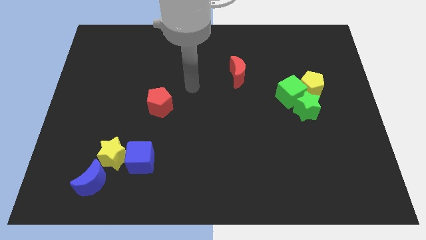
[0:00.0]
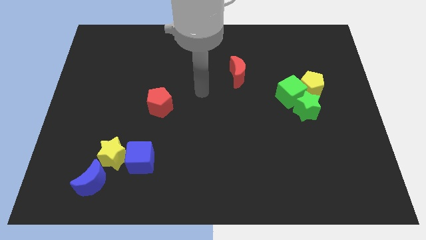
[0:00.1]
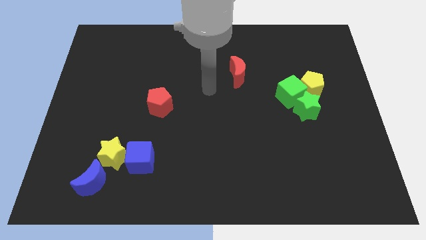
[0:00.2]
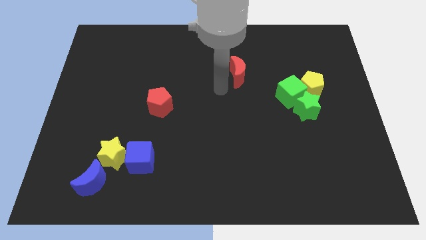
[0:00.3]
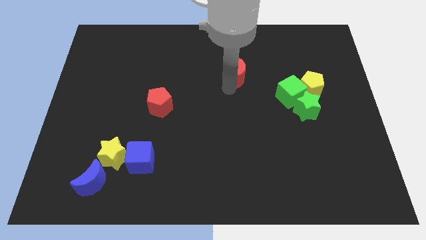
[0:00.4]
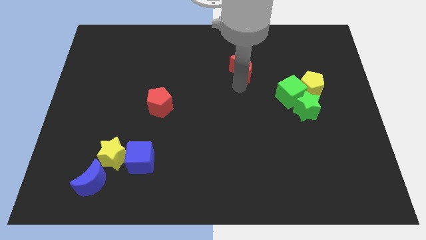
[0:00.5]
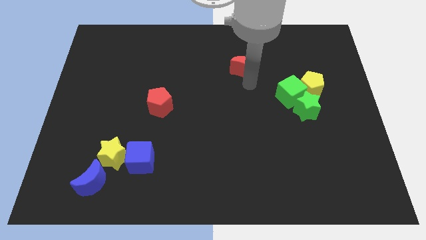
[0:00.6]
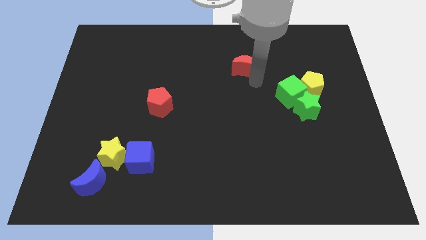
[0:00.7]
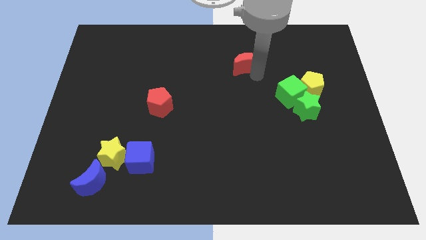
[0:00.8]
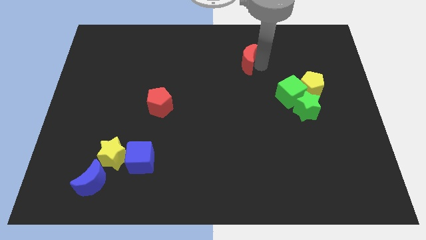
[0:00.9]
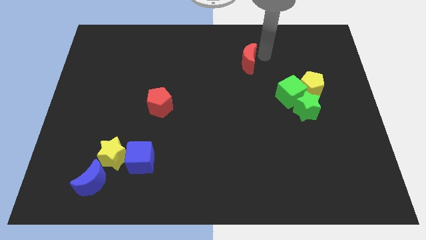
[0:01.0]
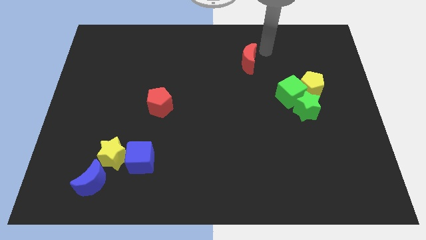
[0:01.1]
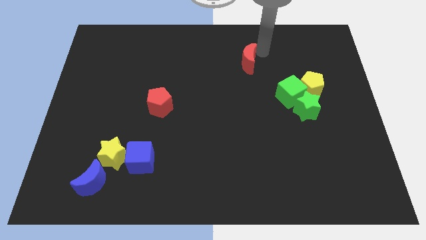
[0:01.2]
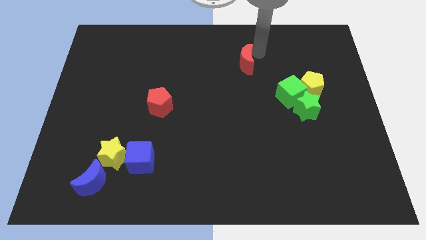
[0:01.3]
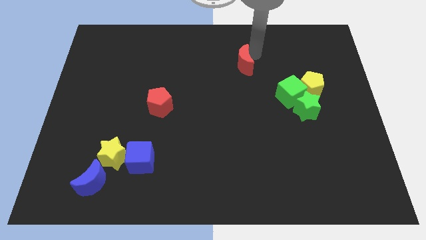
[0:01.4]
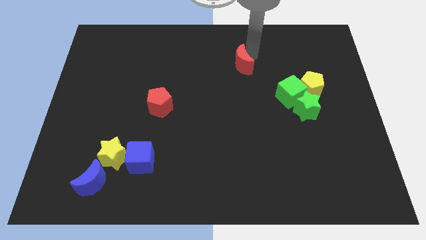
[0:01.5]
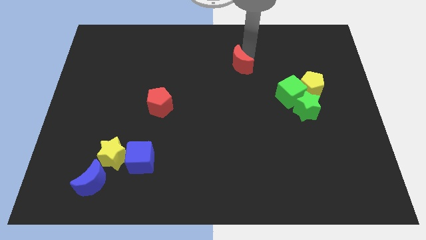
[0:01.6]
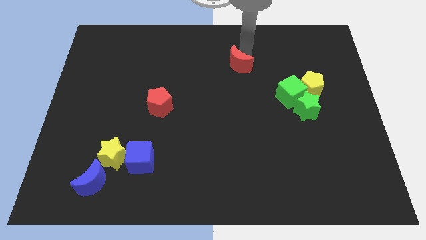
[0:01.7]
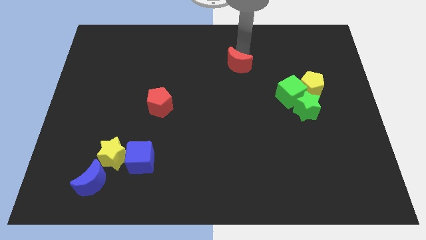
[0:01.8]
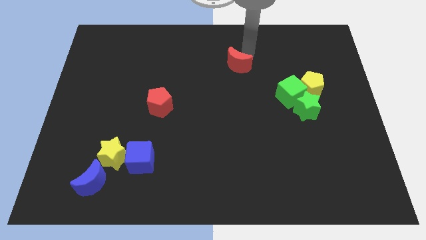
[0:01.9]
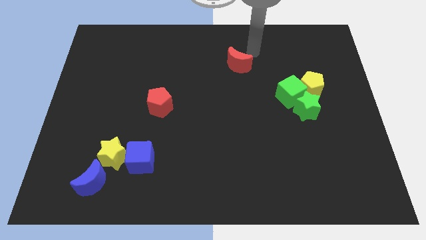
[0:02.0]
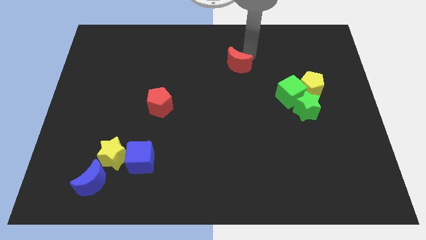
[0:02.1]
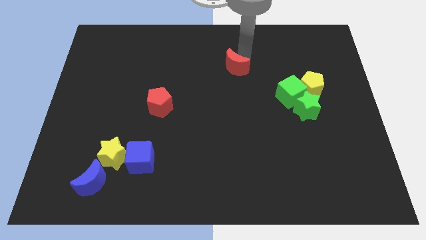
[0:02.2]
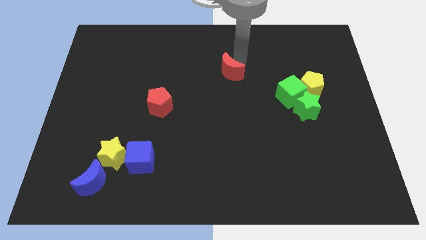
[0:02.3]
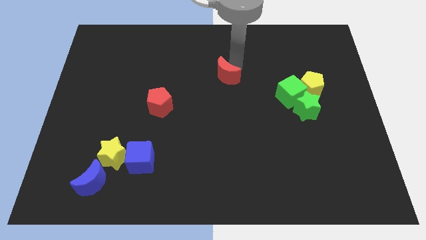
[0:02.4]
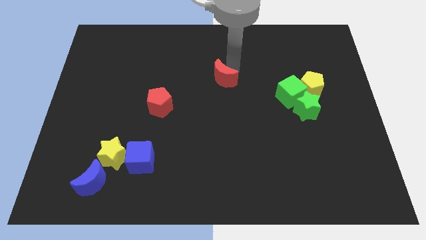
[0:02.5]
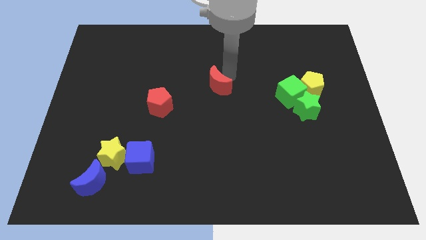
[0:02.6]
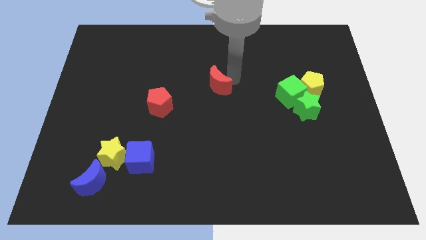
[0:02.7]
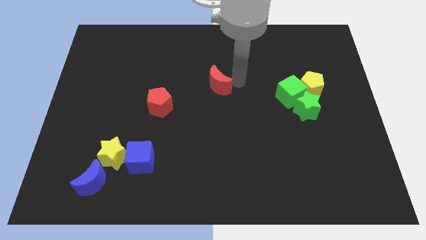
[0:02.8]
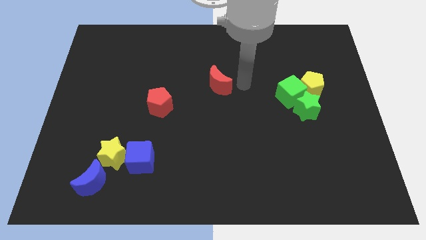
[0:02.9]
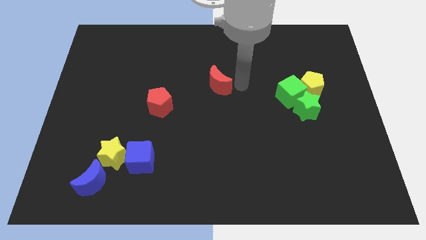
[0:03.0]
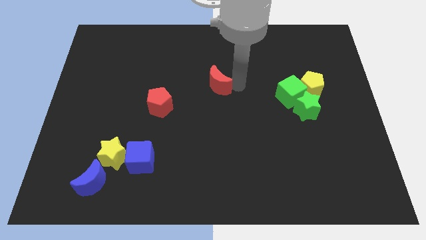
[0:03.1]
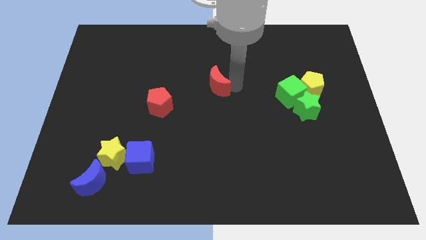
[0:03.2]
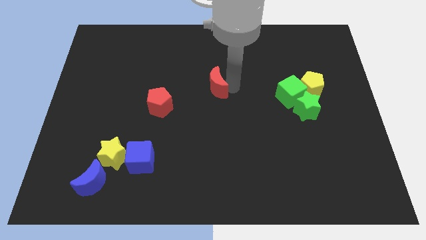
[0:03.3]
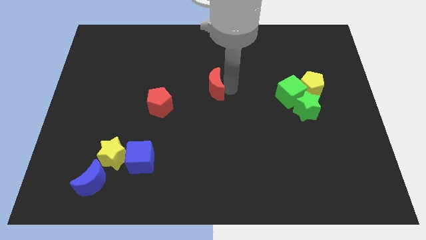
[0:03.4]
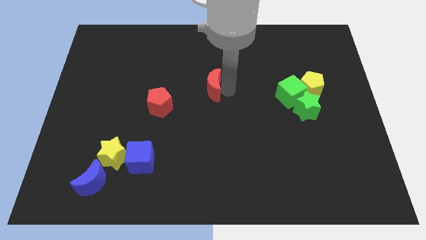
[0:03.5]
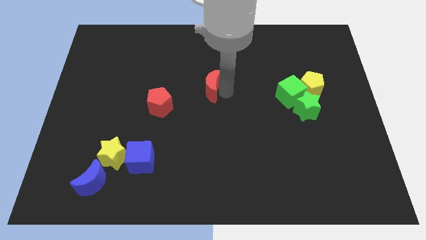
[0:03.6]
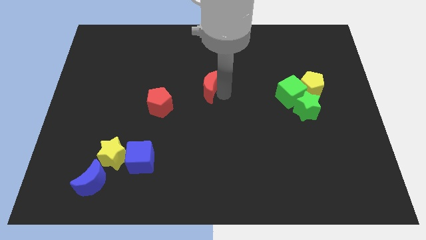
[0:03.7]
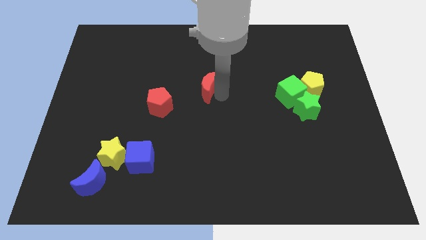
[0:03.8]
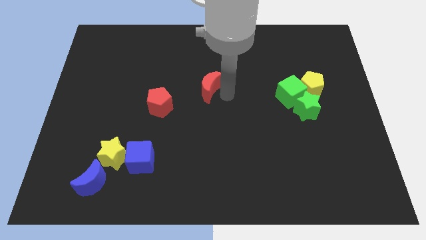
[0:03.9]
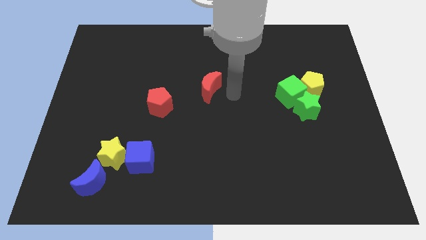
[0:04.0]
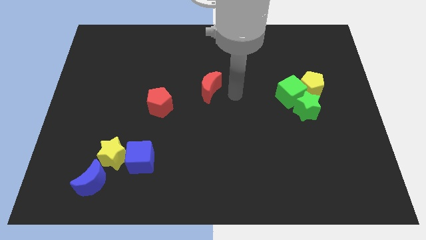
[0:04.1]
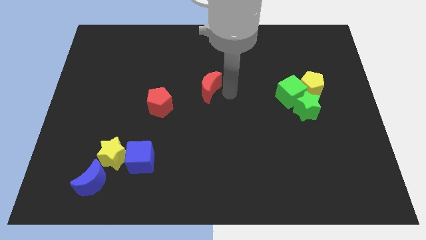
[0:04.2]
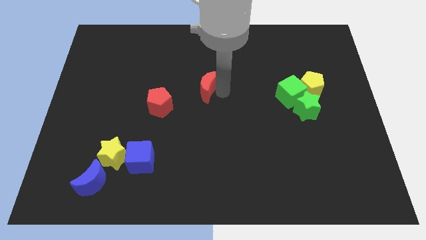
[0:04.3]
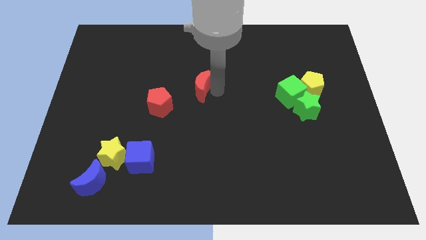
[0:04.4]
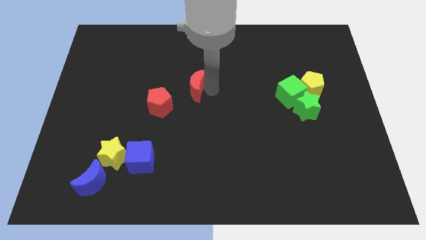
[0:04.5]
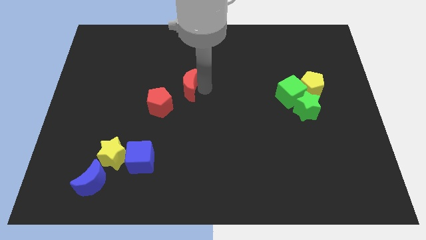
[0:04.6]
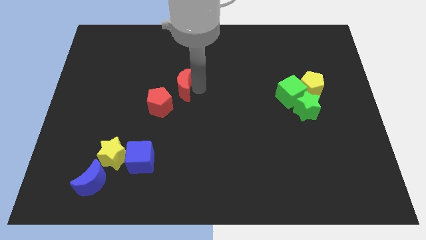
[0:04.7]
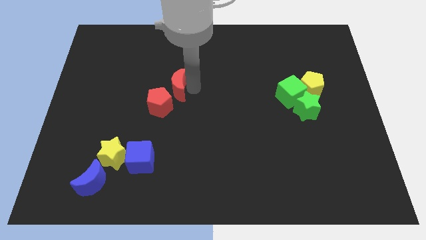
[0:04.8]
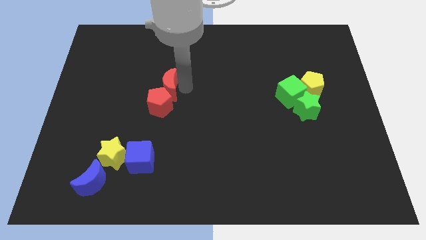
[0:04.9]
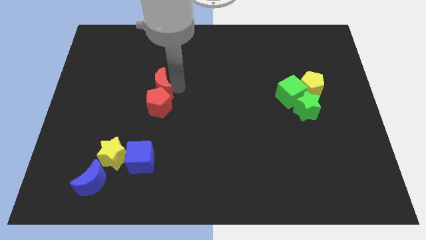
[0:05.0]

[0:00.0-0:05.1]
put the red moon to the top left side of the red pentagon

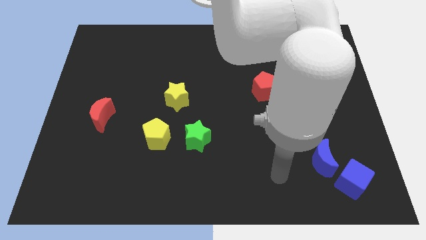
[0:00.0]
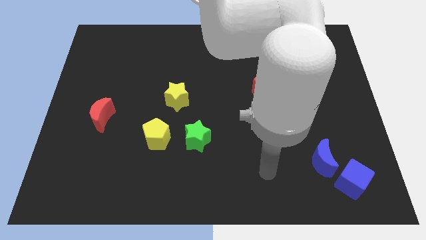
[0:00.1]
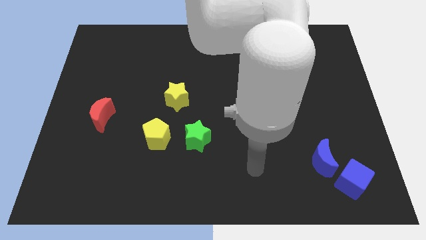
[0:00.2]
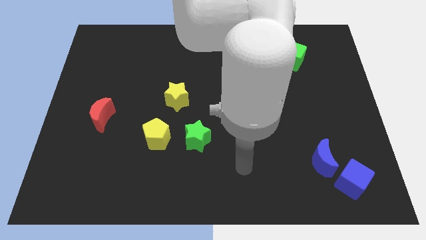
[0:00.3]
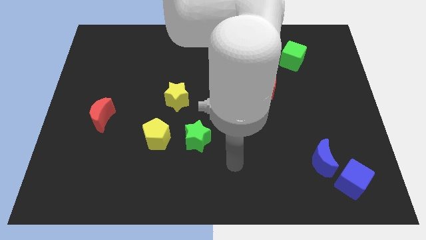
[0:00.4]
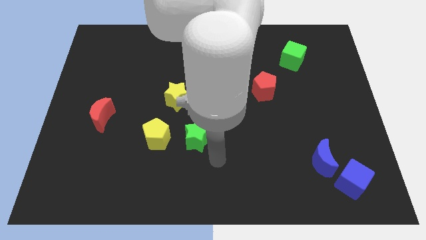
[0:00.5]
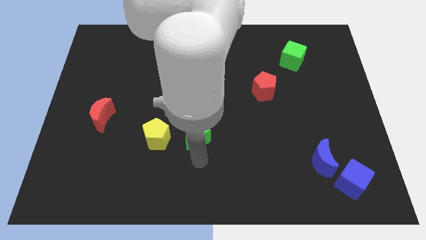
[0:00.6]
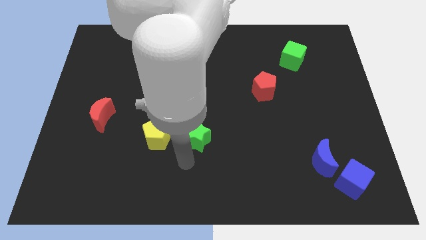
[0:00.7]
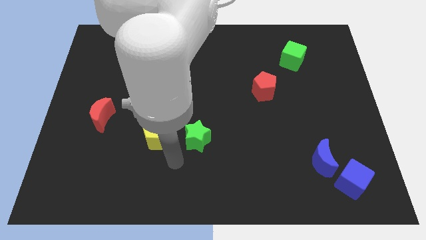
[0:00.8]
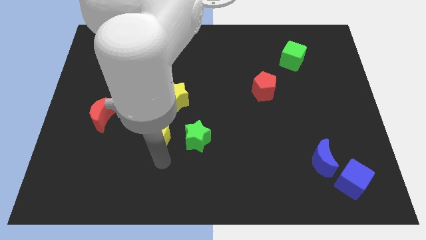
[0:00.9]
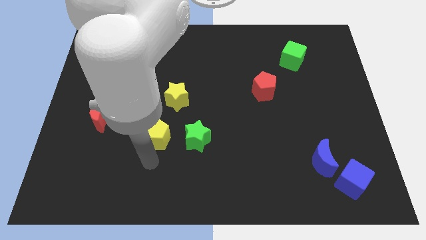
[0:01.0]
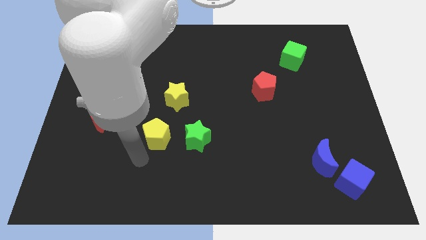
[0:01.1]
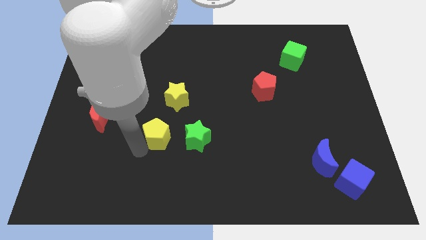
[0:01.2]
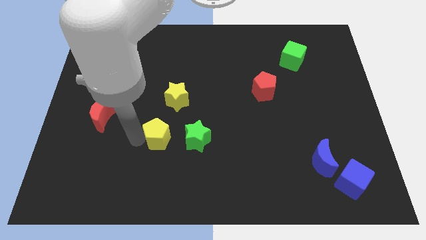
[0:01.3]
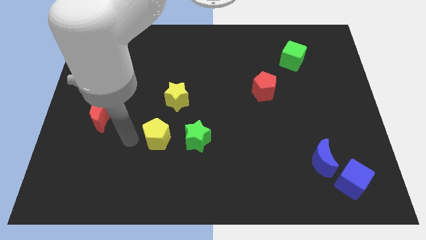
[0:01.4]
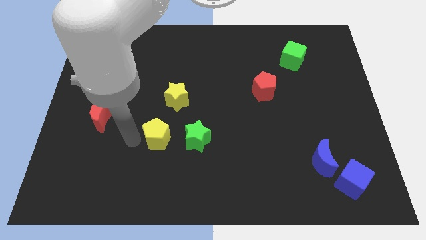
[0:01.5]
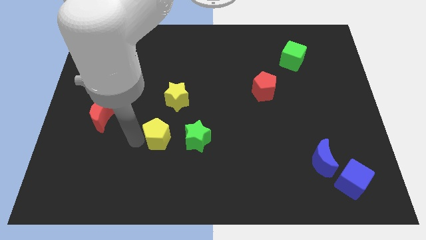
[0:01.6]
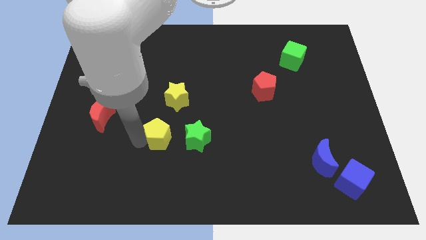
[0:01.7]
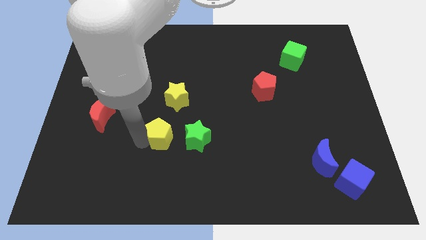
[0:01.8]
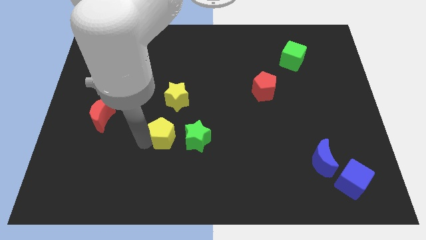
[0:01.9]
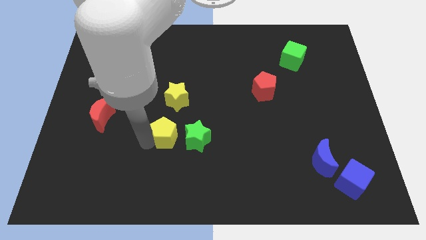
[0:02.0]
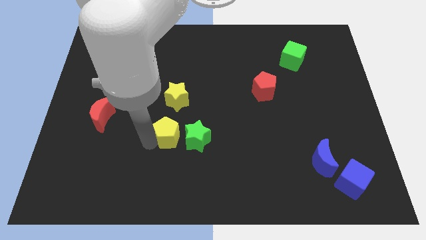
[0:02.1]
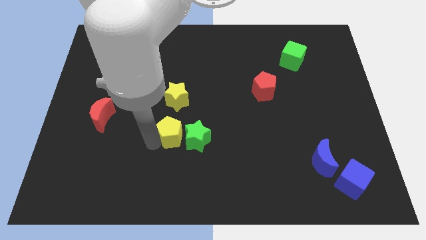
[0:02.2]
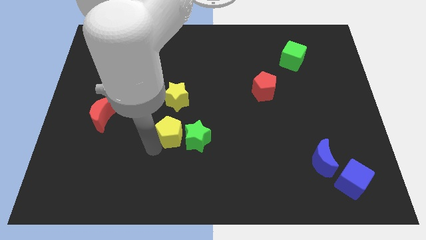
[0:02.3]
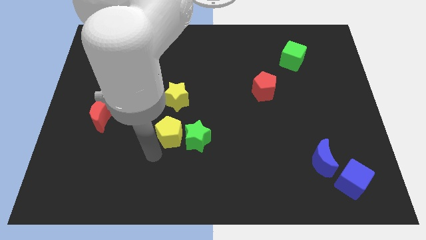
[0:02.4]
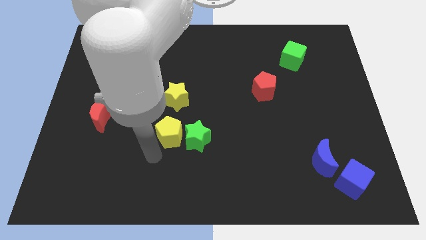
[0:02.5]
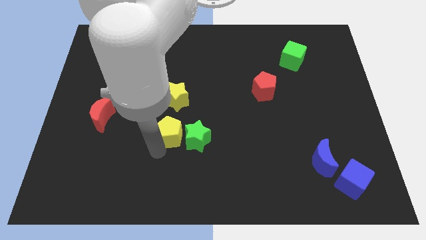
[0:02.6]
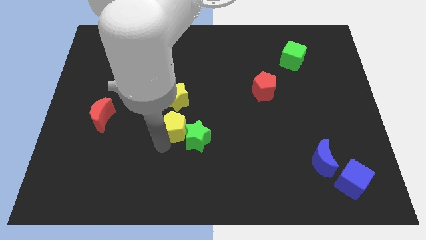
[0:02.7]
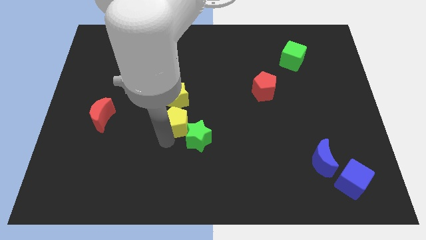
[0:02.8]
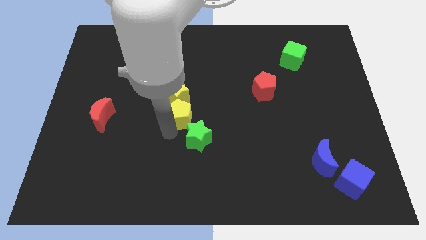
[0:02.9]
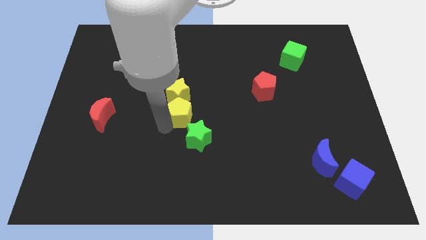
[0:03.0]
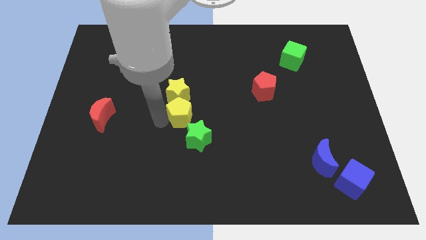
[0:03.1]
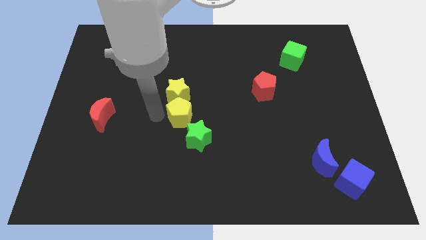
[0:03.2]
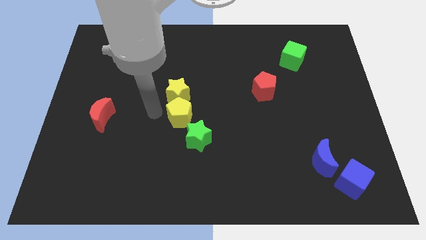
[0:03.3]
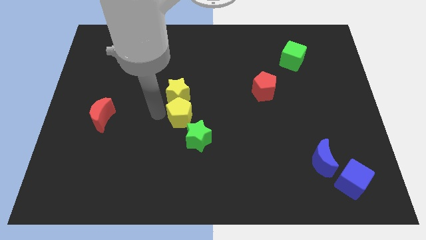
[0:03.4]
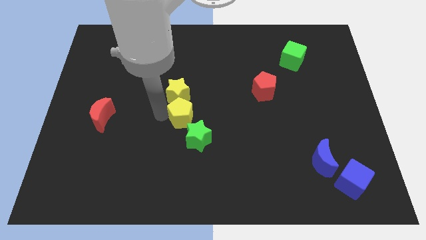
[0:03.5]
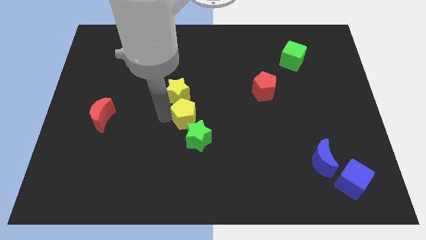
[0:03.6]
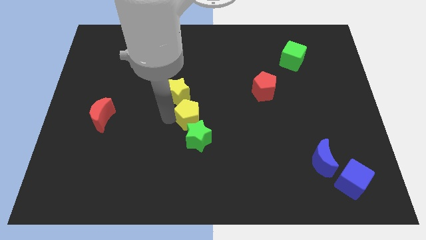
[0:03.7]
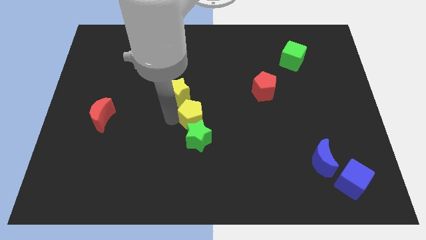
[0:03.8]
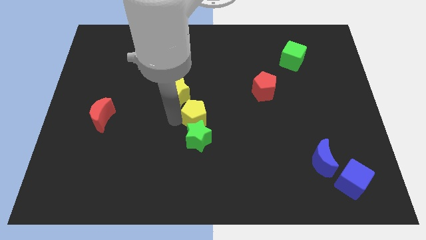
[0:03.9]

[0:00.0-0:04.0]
move the yellow pentagon to the top right of the green star
